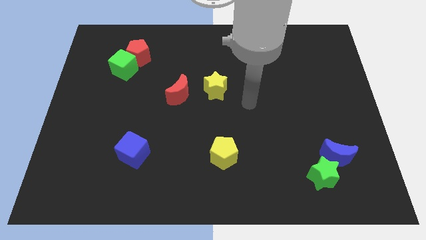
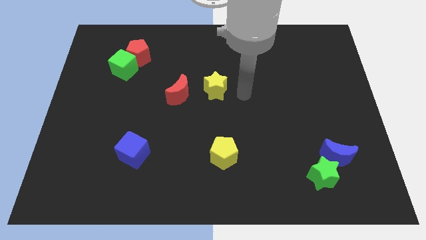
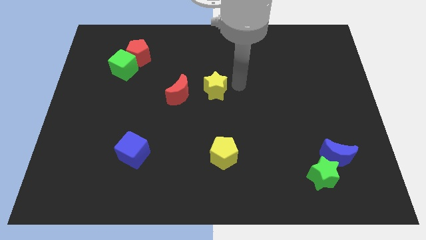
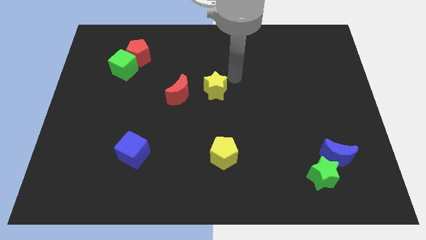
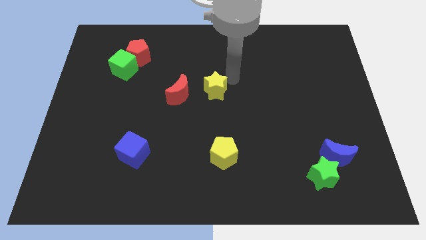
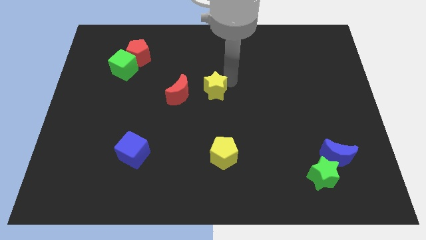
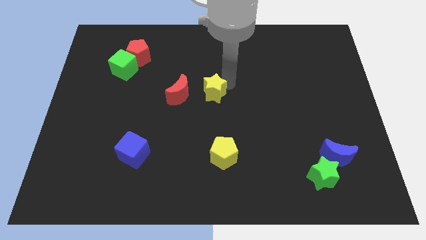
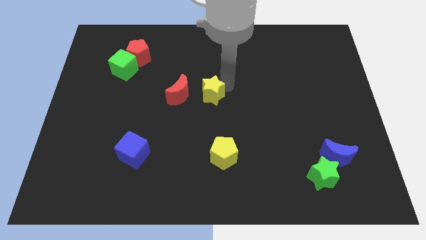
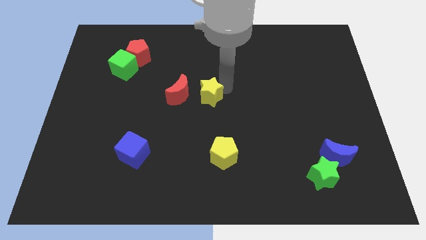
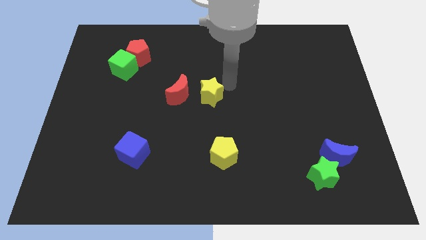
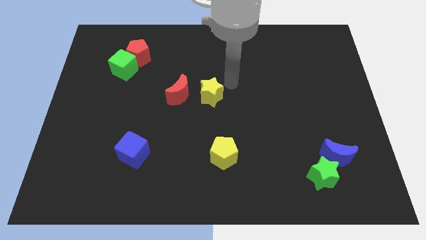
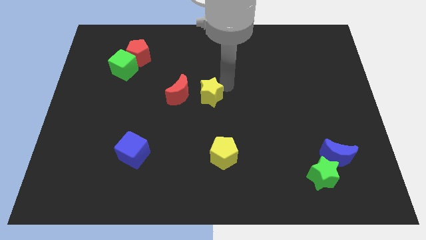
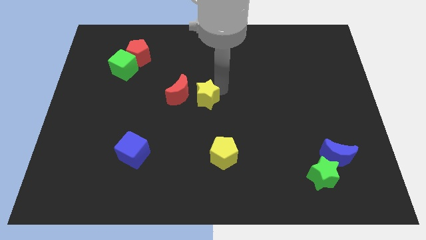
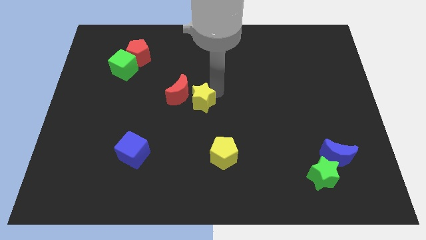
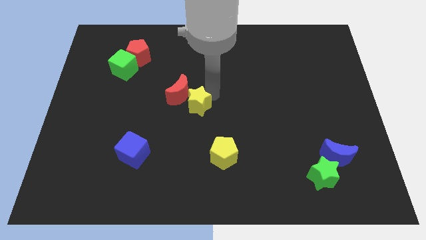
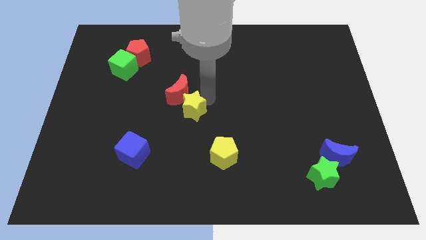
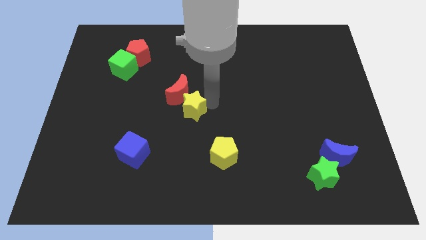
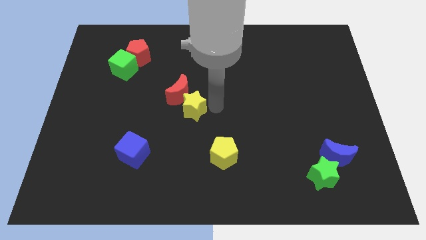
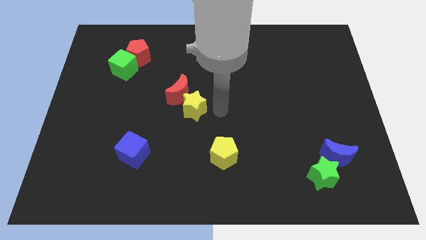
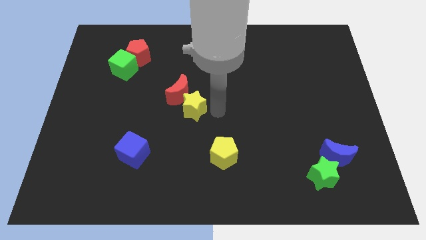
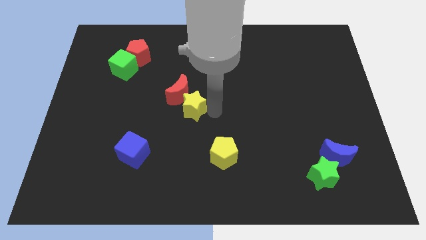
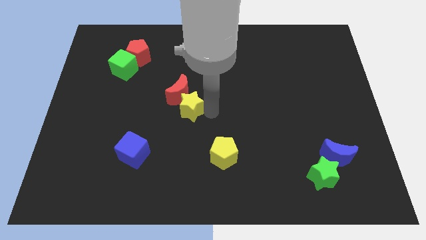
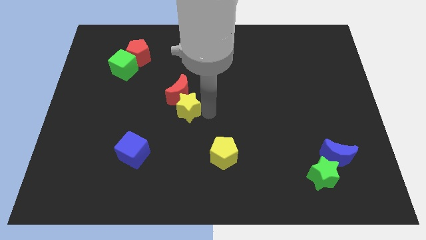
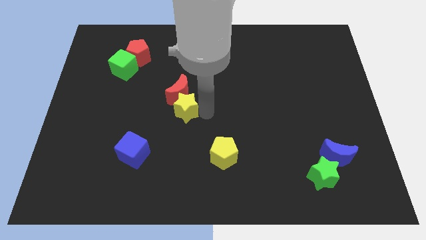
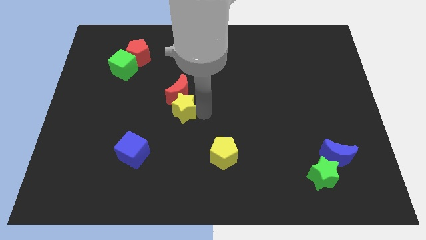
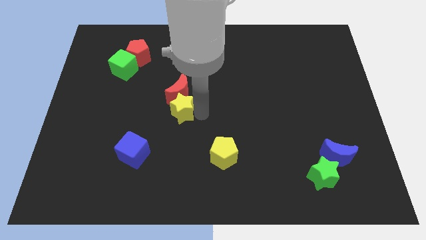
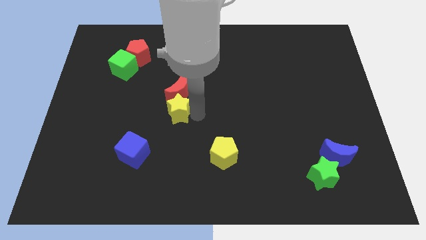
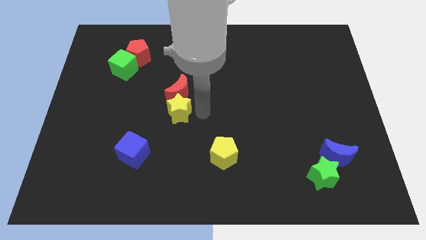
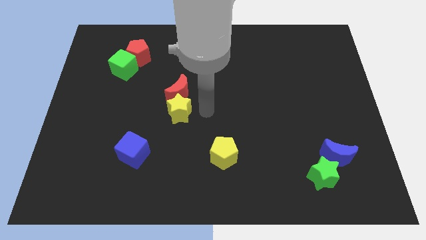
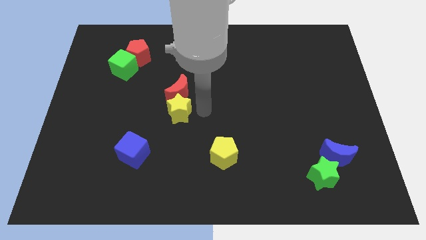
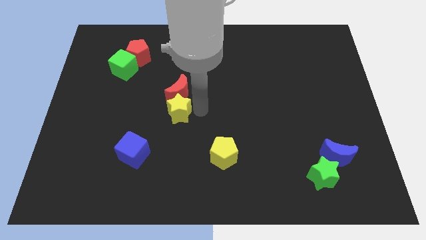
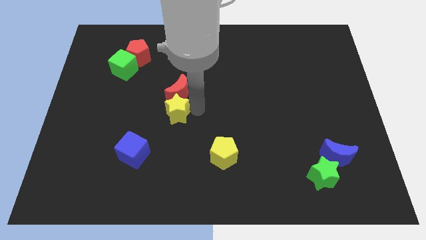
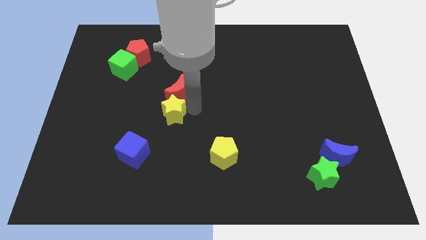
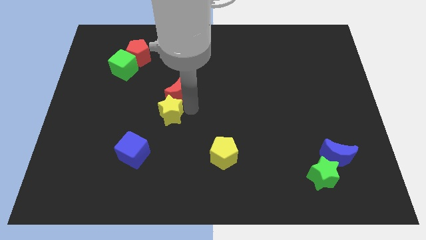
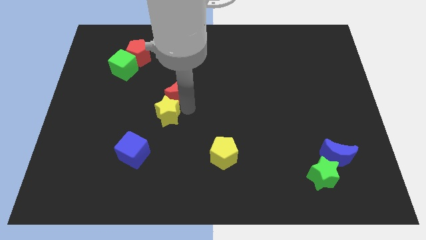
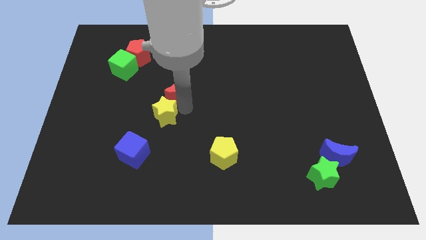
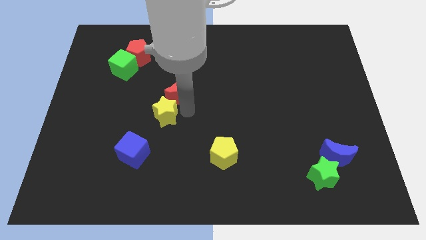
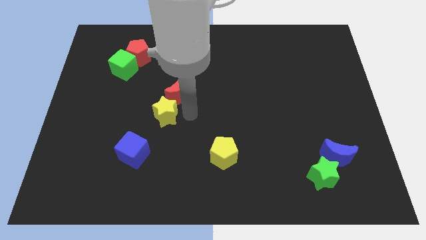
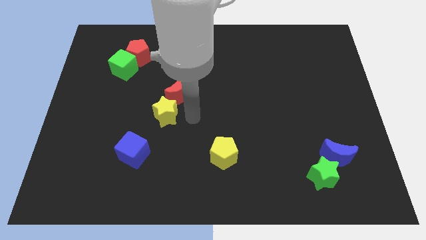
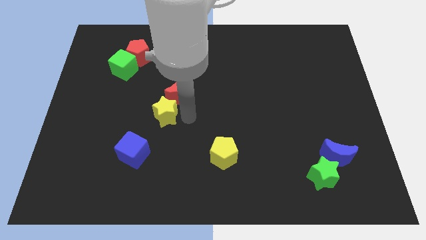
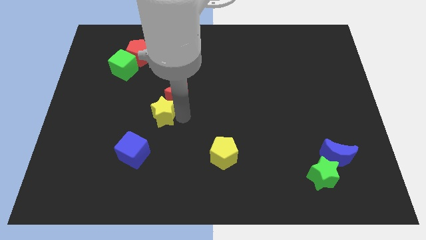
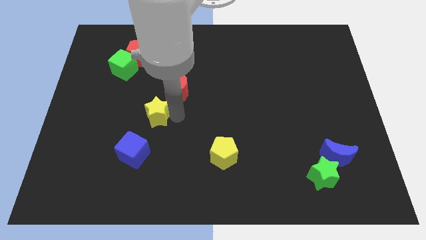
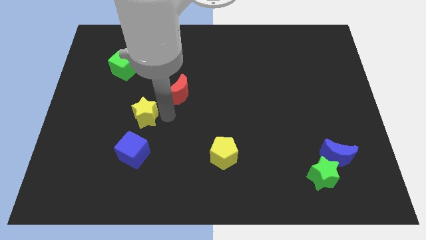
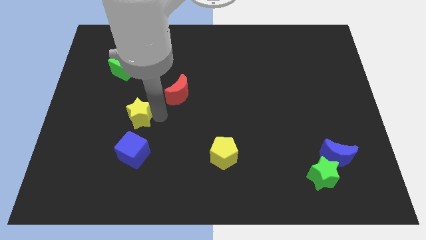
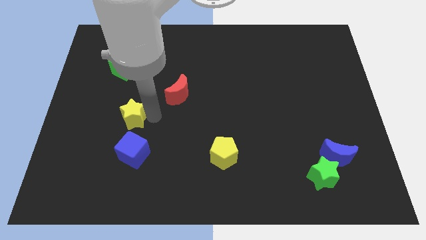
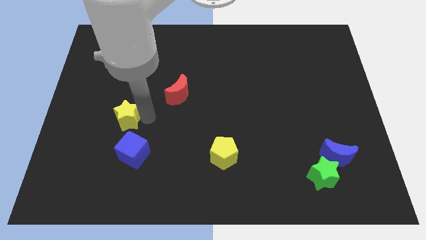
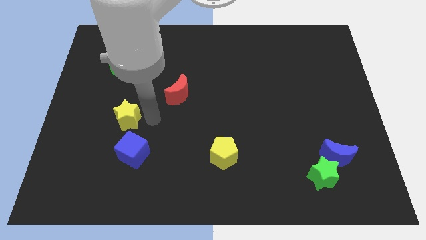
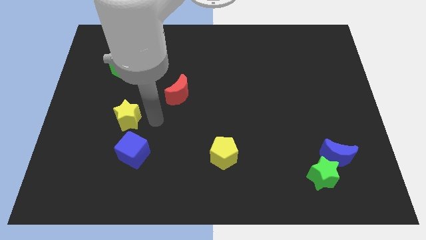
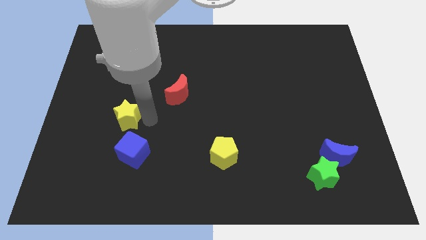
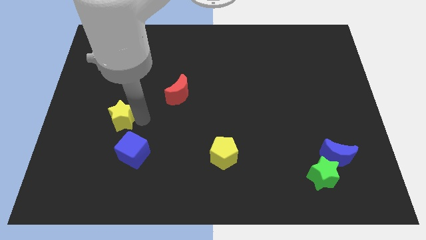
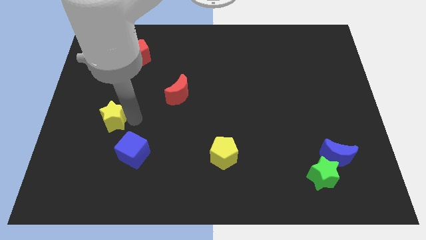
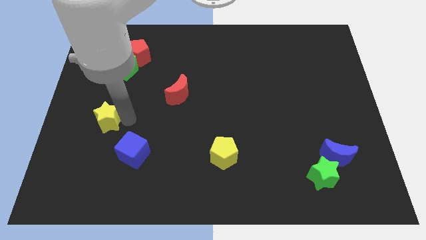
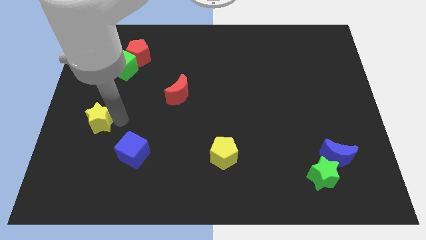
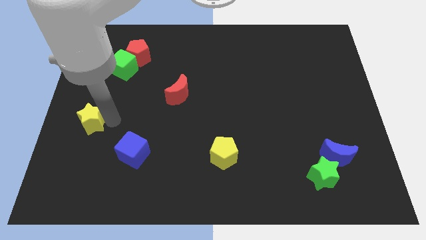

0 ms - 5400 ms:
push the yellow star to the left side of the board
